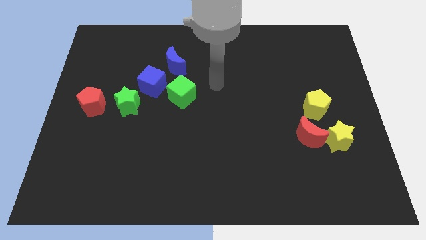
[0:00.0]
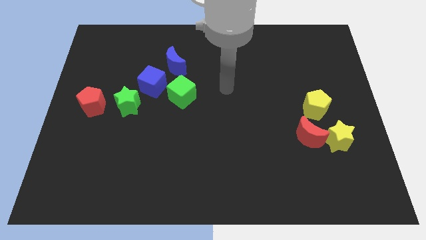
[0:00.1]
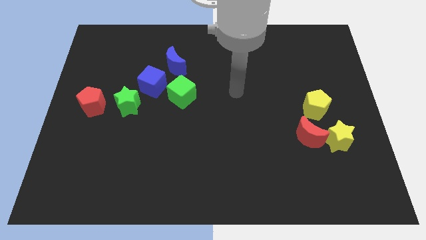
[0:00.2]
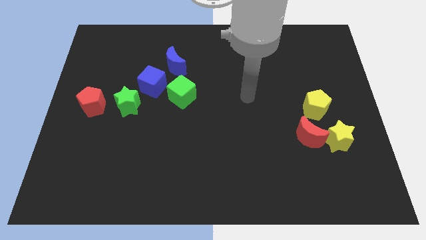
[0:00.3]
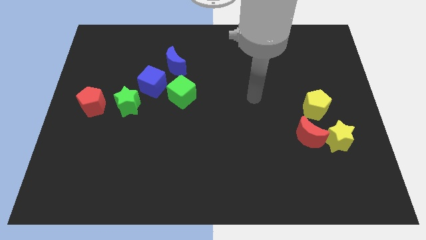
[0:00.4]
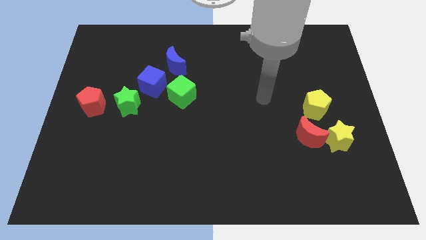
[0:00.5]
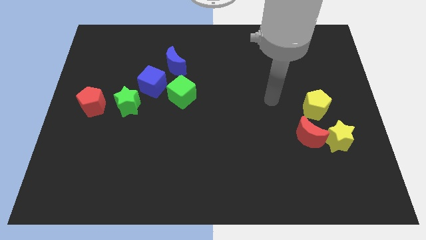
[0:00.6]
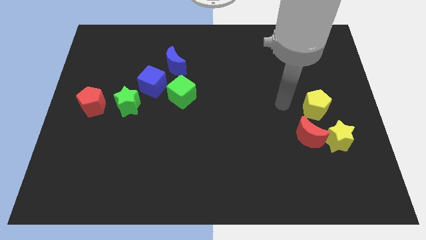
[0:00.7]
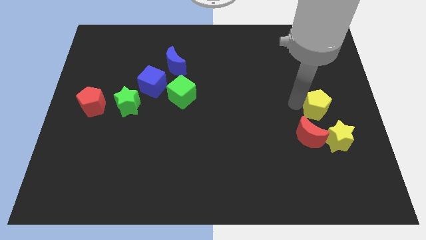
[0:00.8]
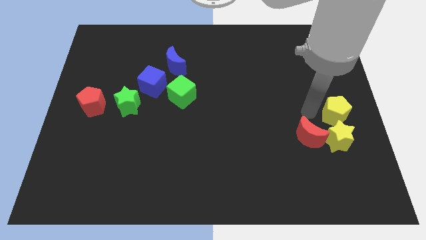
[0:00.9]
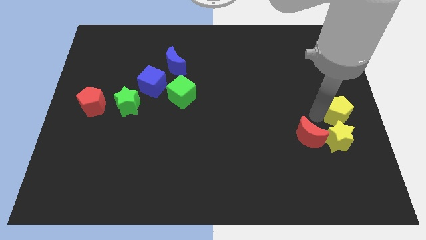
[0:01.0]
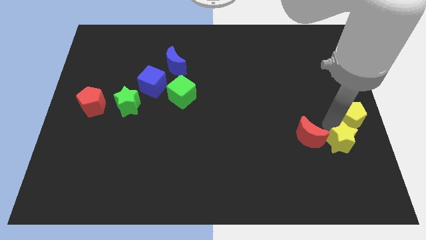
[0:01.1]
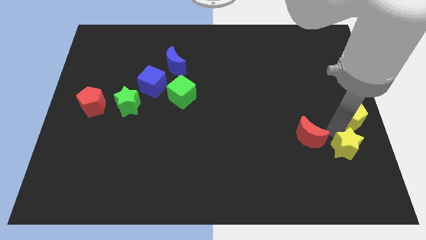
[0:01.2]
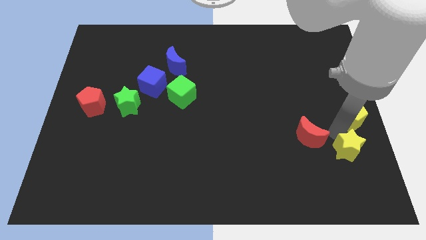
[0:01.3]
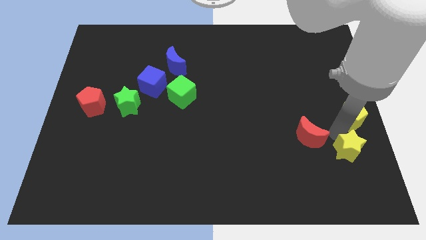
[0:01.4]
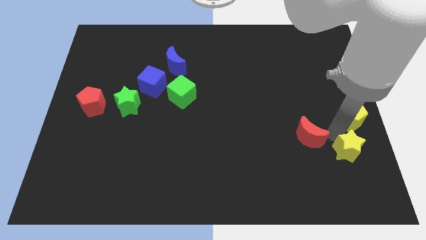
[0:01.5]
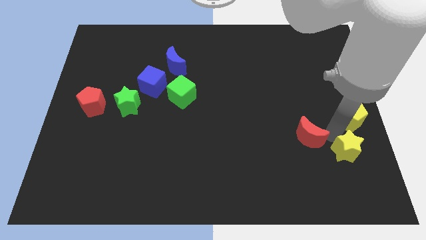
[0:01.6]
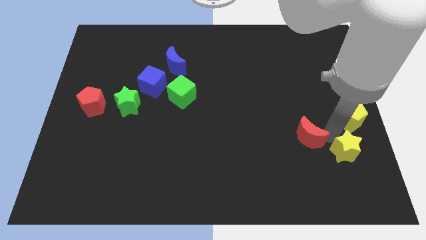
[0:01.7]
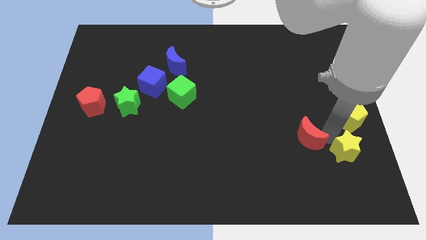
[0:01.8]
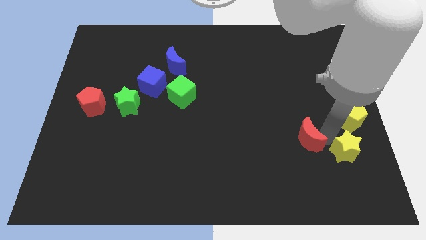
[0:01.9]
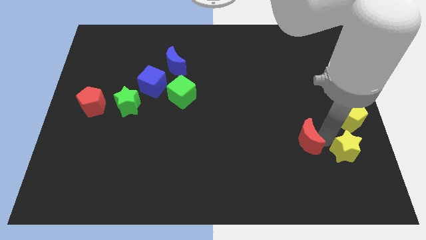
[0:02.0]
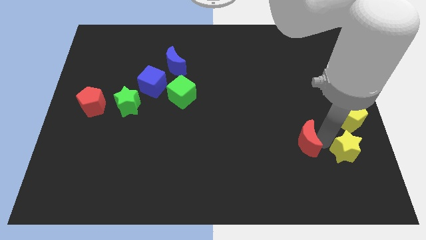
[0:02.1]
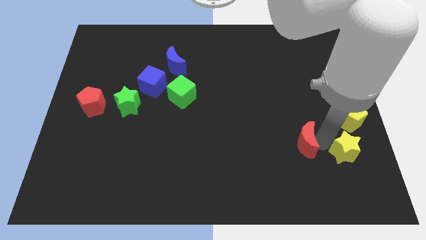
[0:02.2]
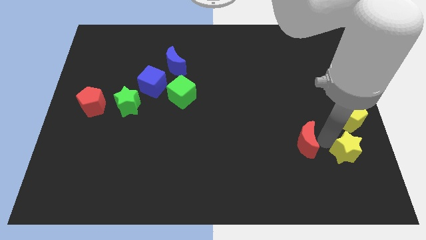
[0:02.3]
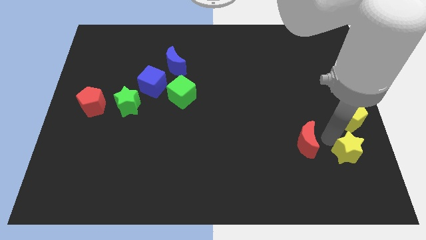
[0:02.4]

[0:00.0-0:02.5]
pull the red moon apart from the yellow star and yellow pentagon

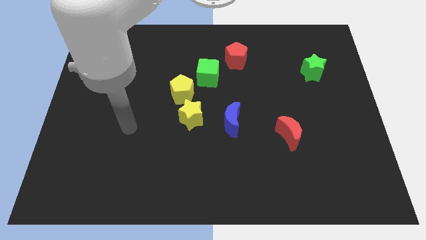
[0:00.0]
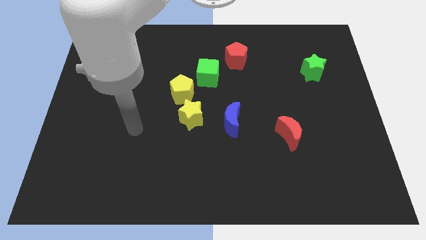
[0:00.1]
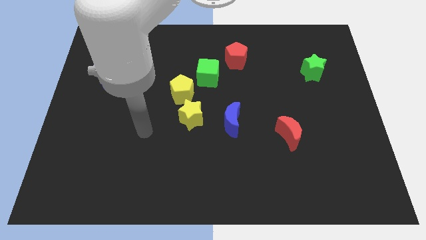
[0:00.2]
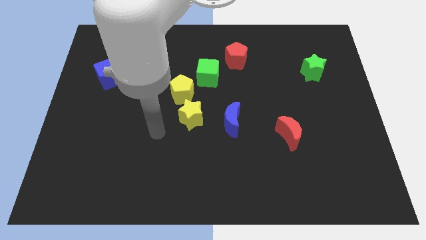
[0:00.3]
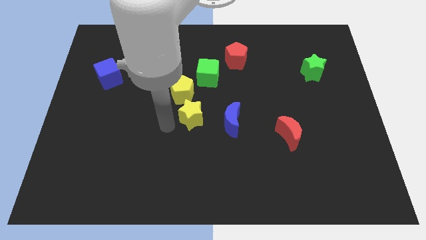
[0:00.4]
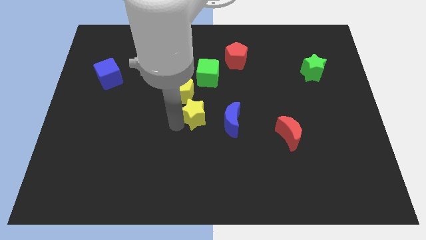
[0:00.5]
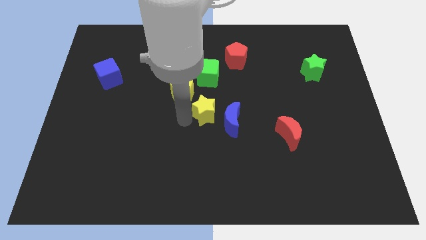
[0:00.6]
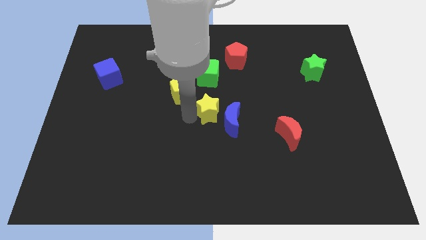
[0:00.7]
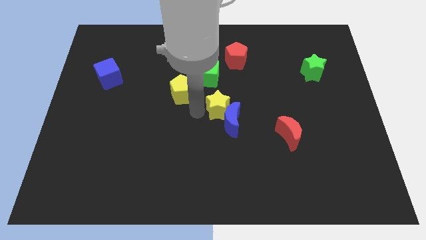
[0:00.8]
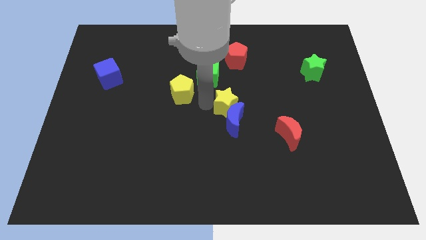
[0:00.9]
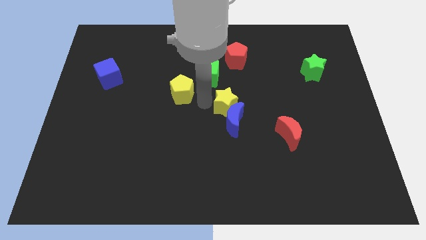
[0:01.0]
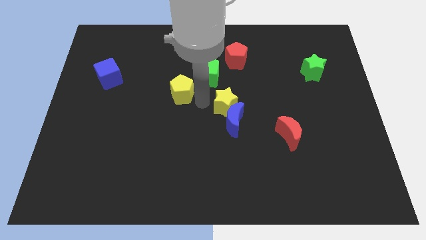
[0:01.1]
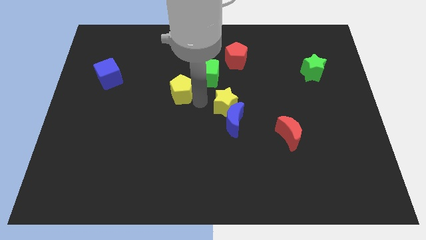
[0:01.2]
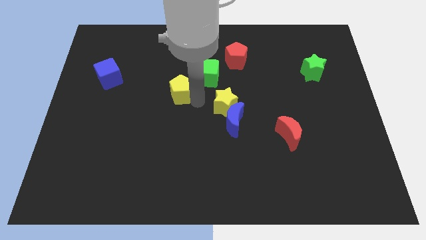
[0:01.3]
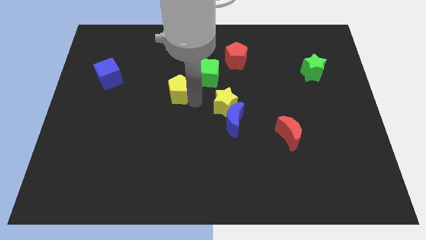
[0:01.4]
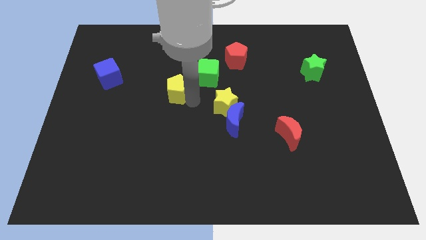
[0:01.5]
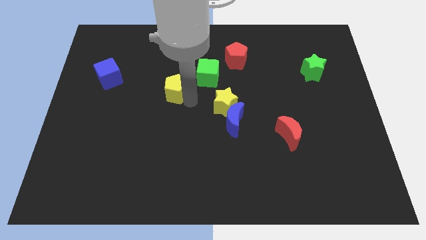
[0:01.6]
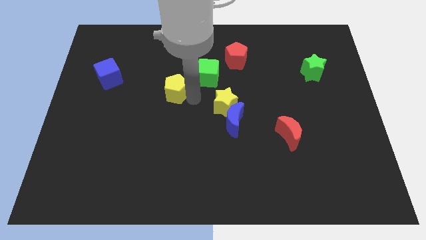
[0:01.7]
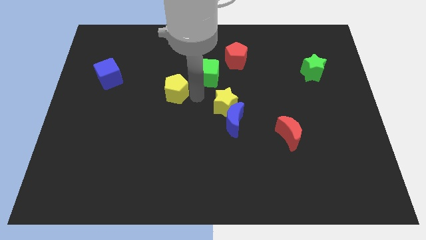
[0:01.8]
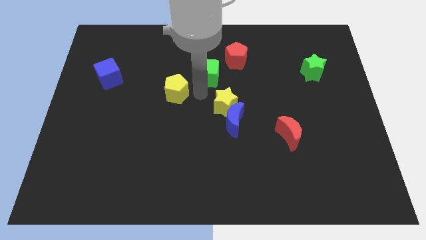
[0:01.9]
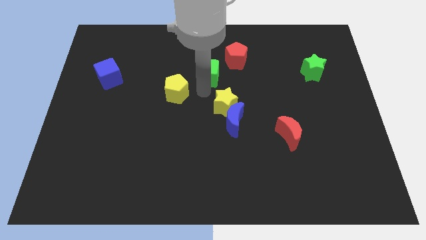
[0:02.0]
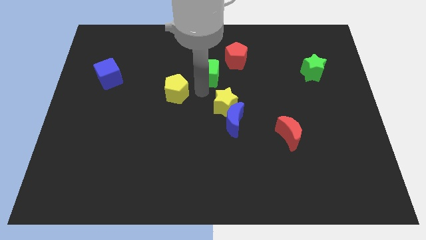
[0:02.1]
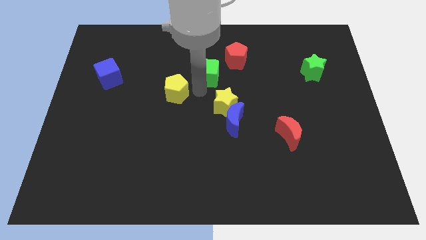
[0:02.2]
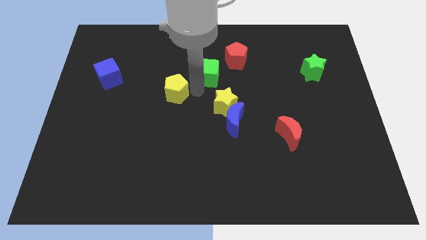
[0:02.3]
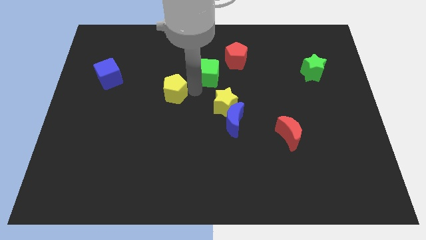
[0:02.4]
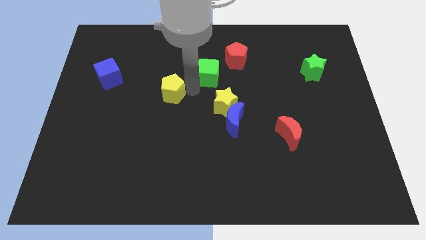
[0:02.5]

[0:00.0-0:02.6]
move the yellow pentagon away from the yellow star and green cube

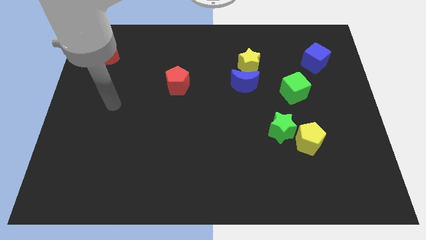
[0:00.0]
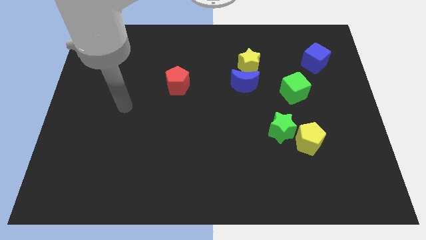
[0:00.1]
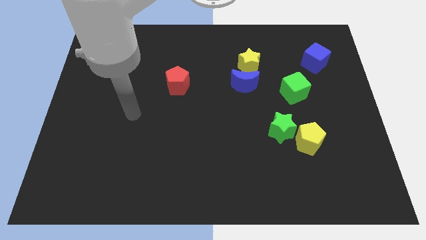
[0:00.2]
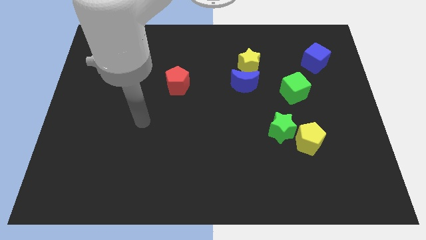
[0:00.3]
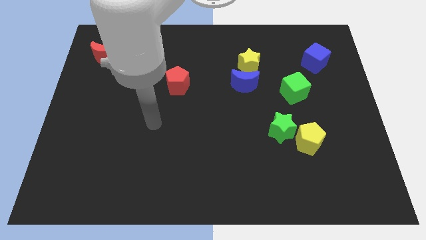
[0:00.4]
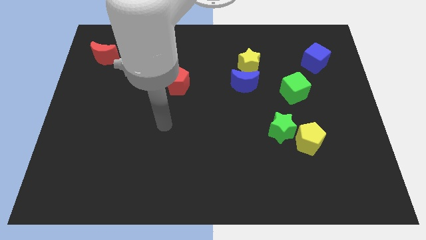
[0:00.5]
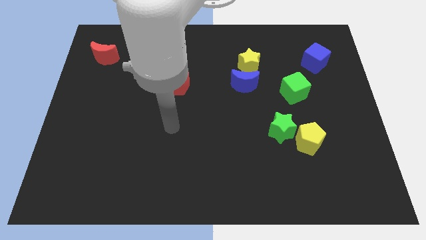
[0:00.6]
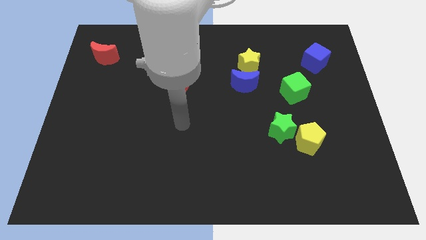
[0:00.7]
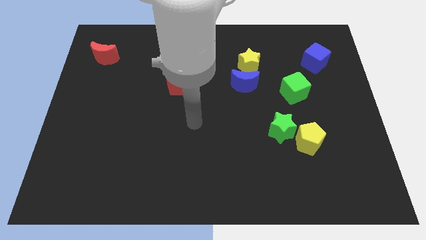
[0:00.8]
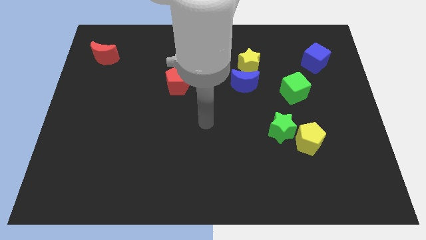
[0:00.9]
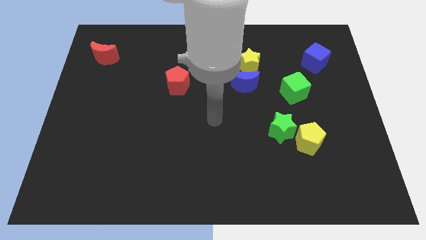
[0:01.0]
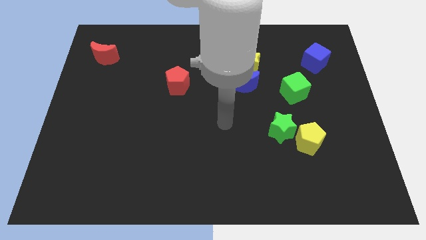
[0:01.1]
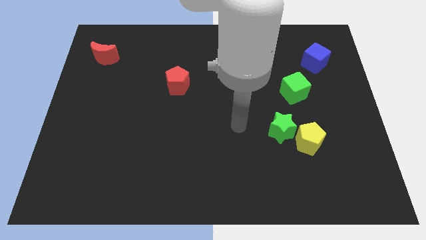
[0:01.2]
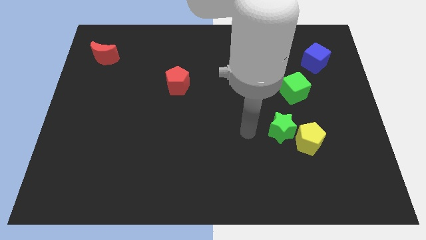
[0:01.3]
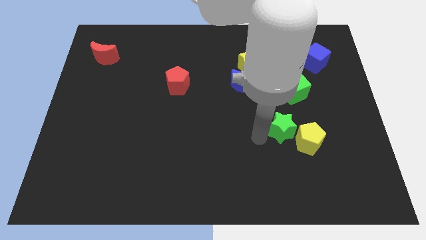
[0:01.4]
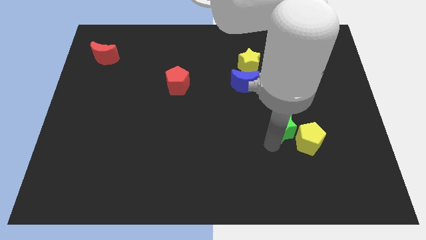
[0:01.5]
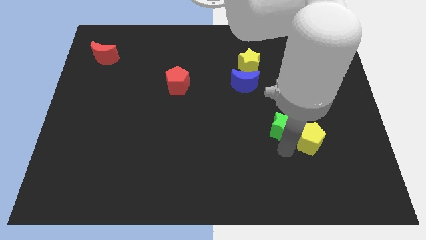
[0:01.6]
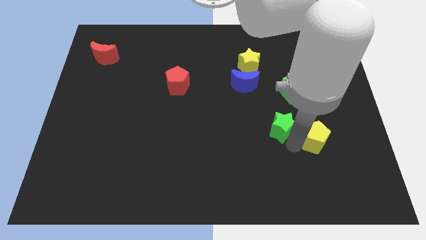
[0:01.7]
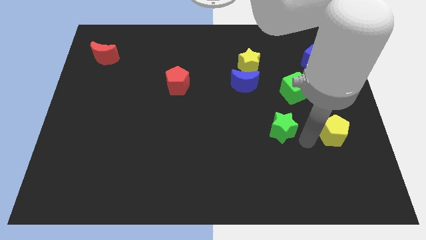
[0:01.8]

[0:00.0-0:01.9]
move the green star away from the yellow pentagon

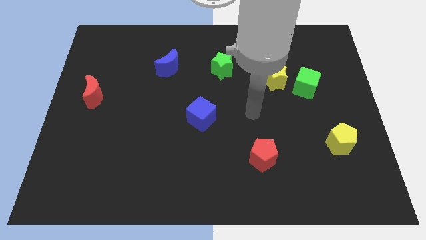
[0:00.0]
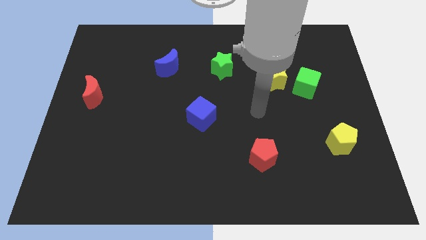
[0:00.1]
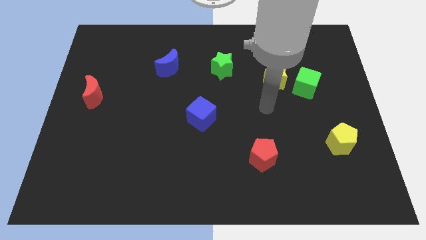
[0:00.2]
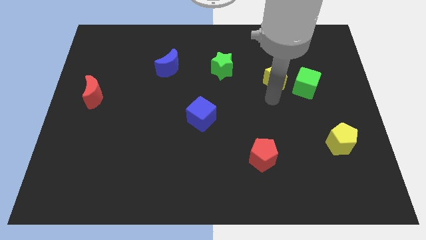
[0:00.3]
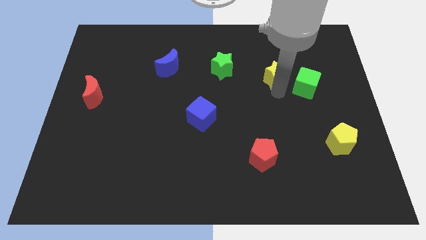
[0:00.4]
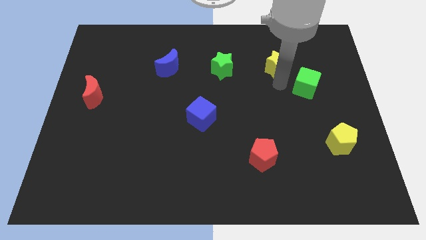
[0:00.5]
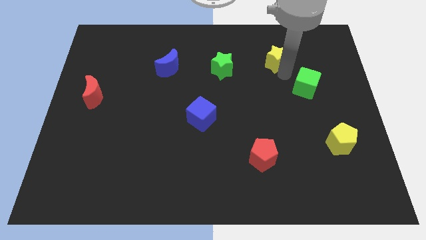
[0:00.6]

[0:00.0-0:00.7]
move the green cube away from the yellow star

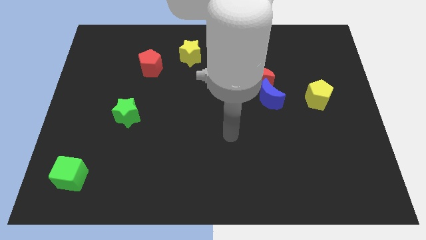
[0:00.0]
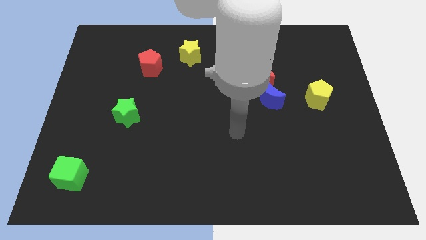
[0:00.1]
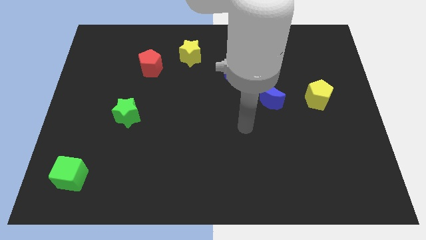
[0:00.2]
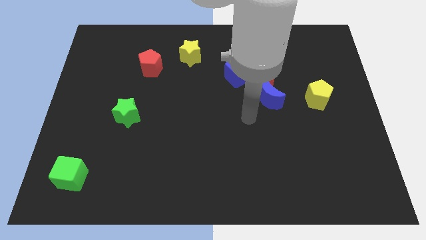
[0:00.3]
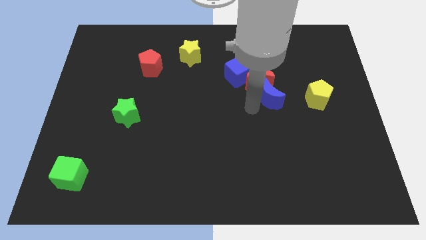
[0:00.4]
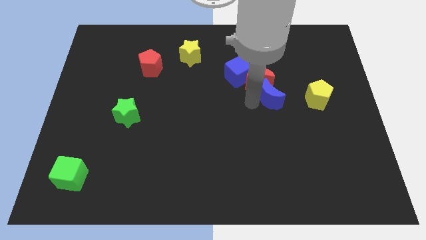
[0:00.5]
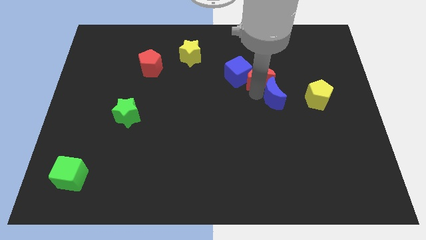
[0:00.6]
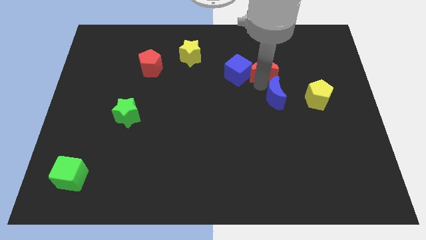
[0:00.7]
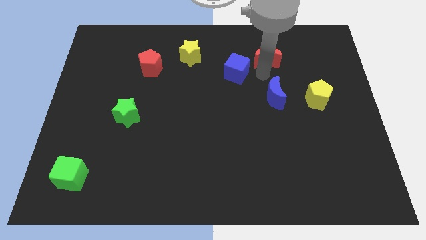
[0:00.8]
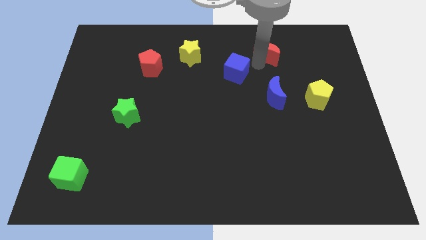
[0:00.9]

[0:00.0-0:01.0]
pull the blue cube apart from the red moon

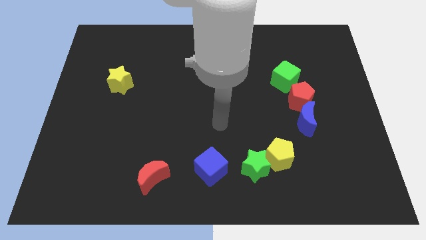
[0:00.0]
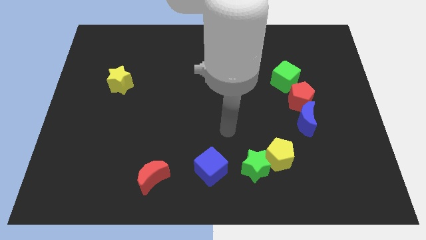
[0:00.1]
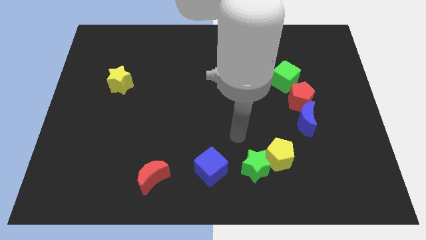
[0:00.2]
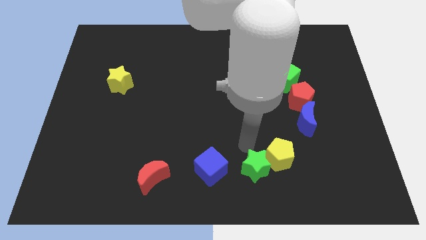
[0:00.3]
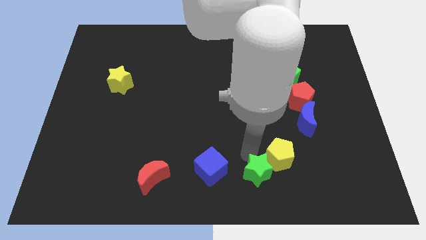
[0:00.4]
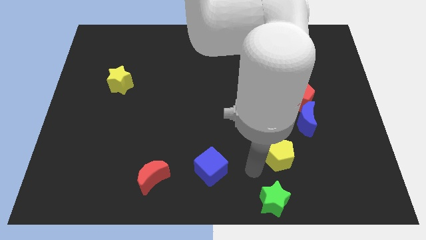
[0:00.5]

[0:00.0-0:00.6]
separate the yellow pentagon from the green star
